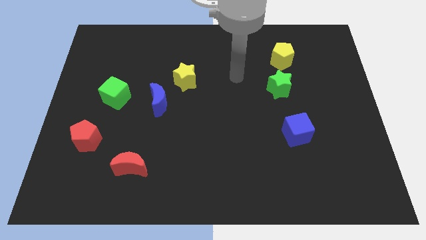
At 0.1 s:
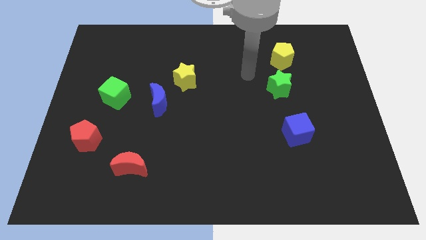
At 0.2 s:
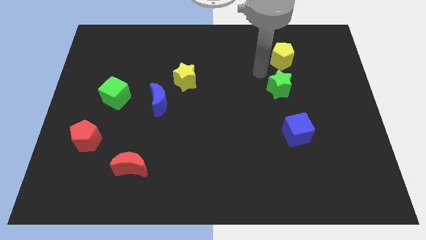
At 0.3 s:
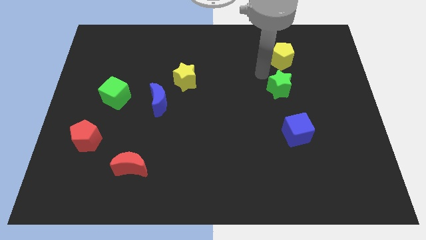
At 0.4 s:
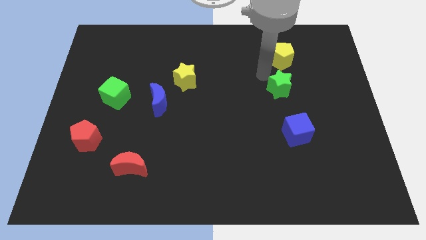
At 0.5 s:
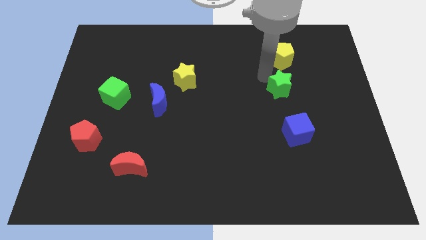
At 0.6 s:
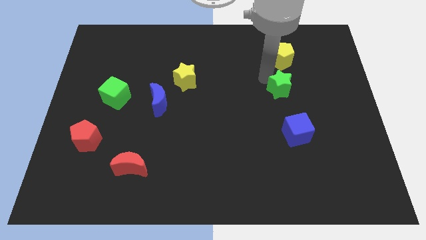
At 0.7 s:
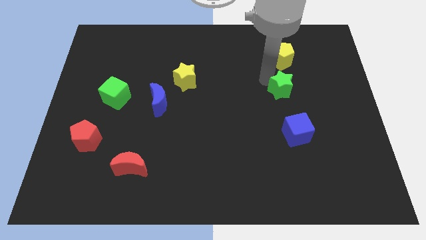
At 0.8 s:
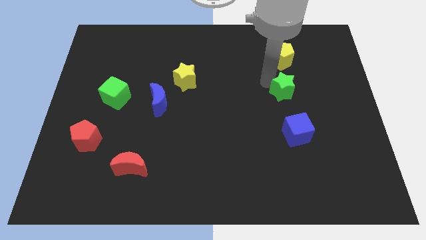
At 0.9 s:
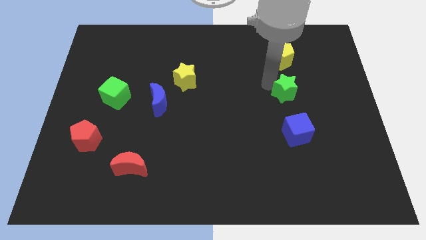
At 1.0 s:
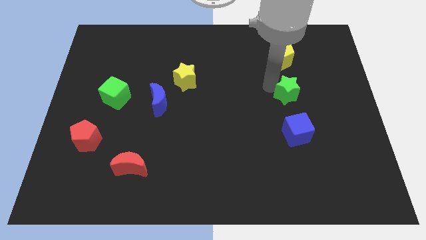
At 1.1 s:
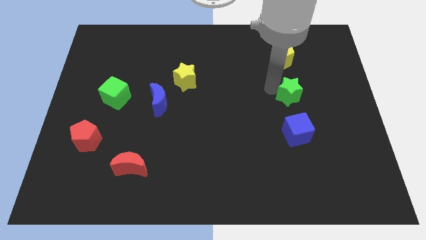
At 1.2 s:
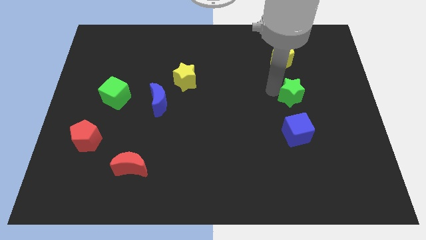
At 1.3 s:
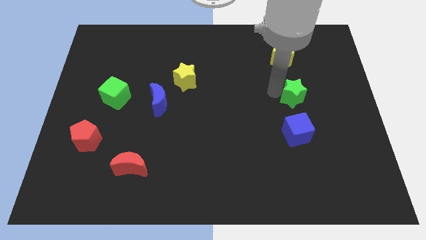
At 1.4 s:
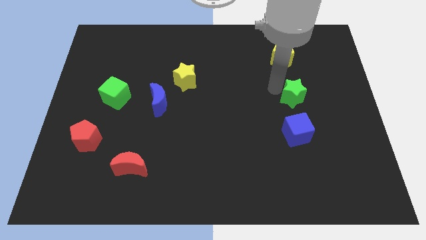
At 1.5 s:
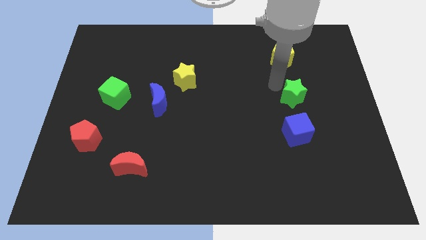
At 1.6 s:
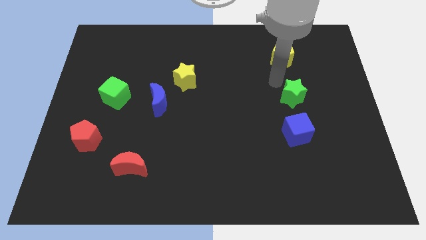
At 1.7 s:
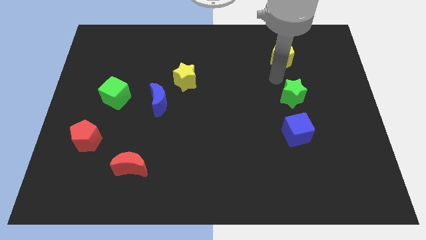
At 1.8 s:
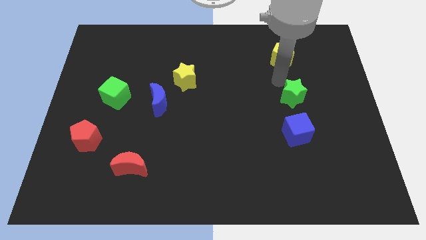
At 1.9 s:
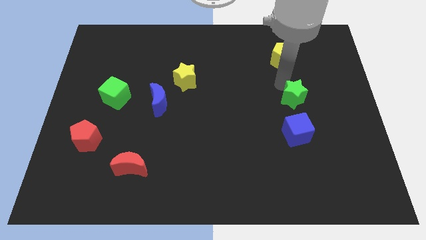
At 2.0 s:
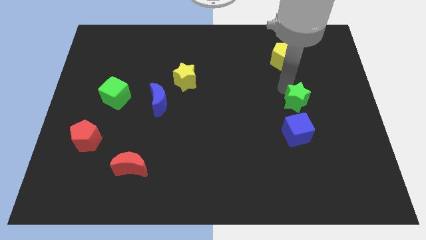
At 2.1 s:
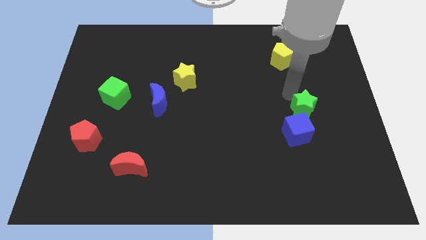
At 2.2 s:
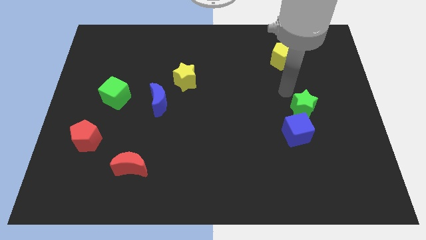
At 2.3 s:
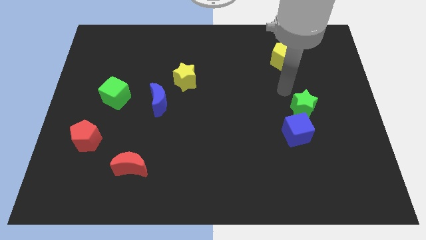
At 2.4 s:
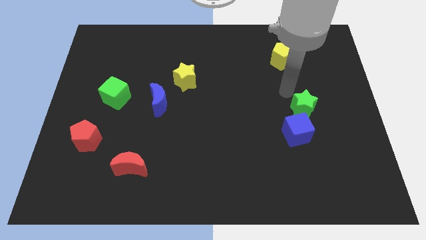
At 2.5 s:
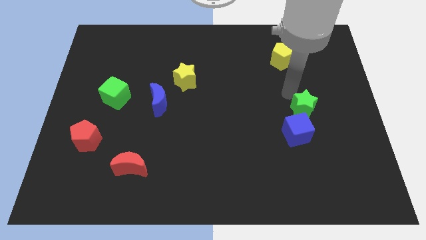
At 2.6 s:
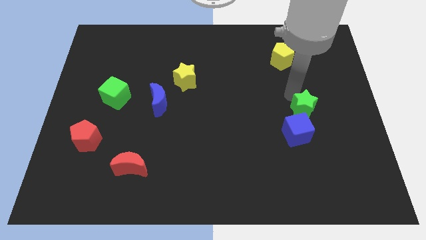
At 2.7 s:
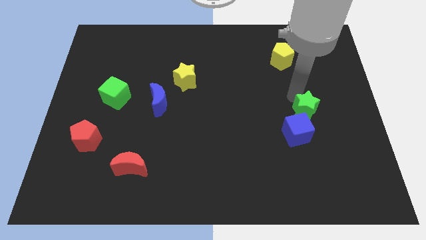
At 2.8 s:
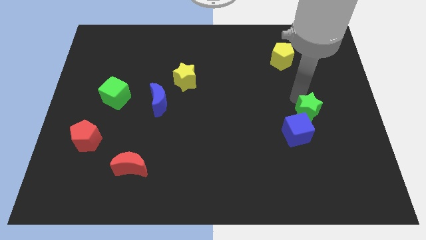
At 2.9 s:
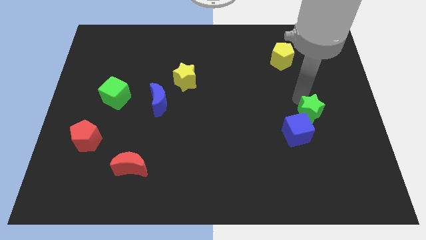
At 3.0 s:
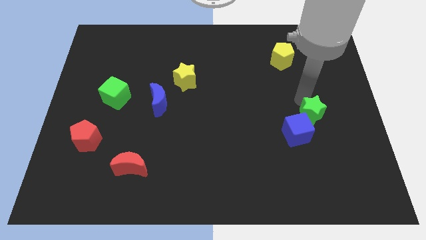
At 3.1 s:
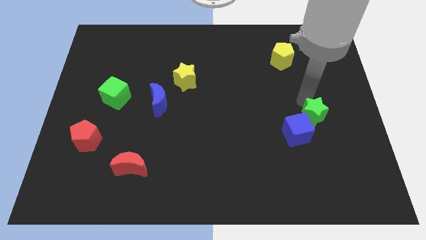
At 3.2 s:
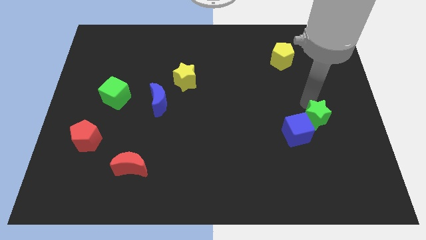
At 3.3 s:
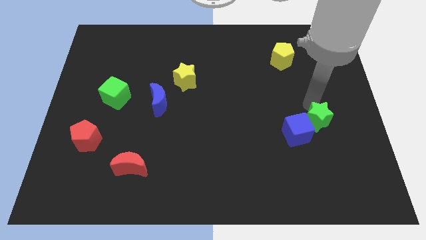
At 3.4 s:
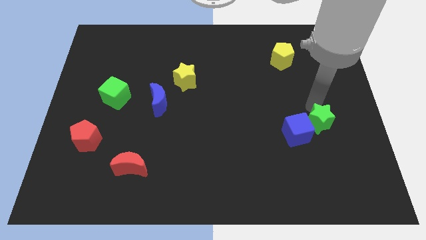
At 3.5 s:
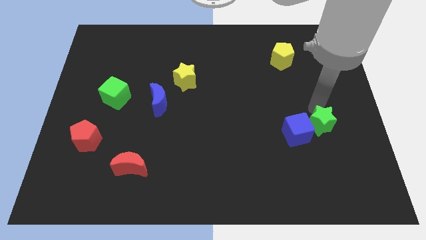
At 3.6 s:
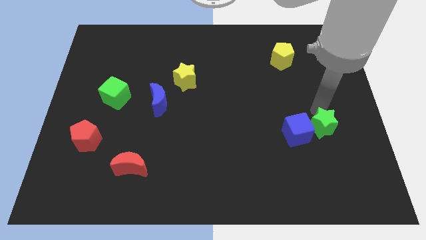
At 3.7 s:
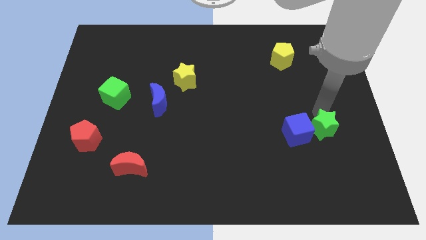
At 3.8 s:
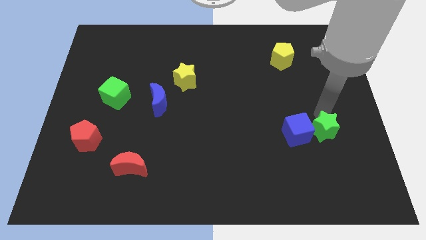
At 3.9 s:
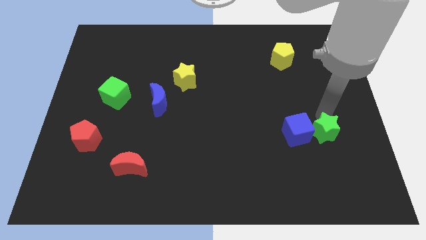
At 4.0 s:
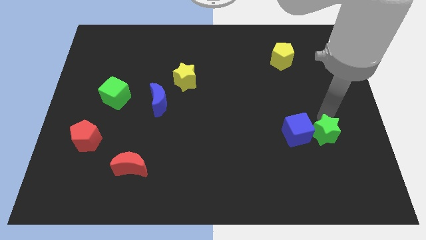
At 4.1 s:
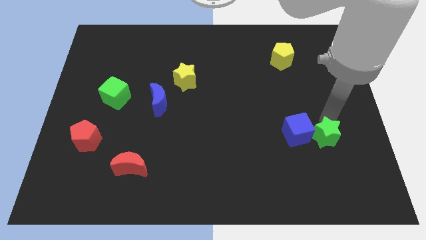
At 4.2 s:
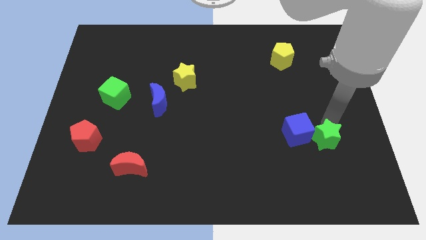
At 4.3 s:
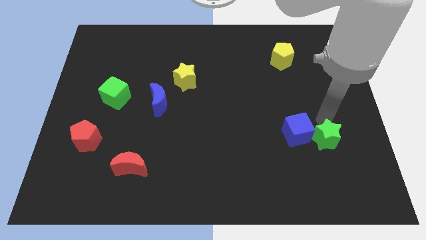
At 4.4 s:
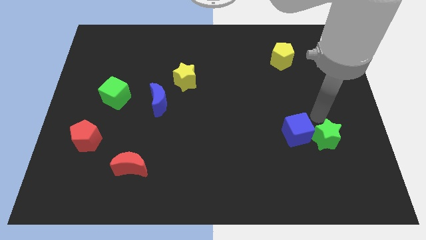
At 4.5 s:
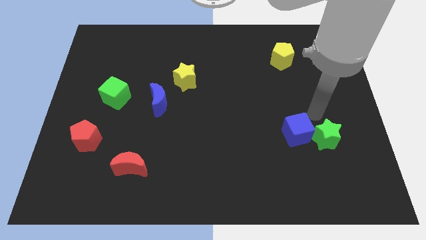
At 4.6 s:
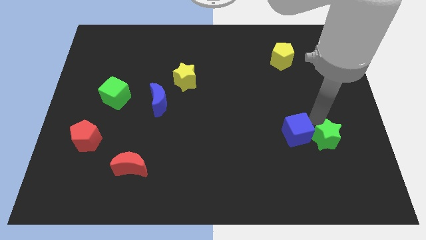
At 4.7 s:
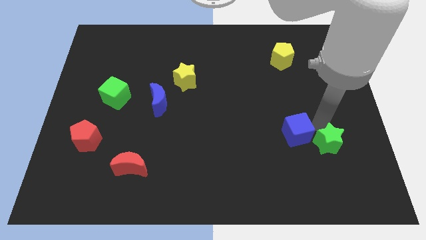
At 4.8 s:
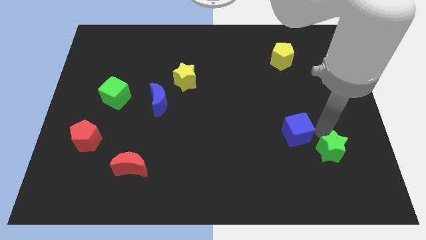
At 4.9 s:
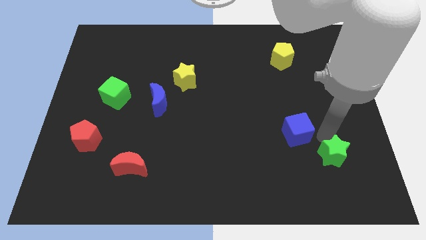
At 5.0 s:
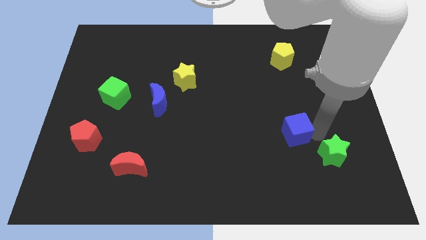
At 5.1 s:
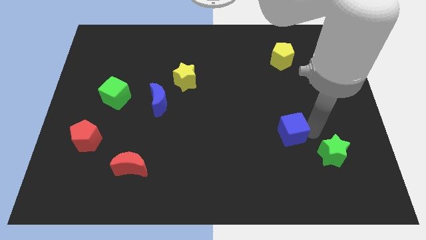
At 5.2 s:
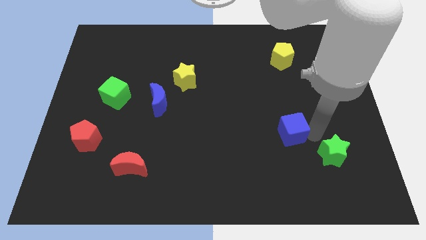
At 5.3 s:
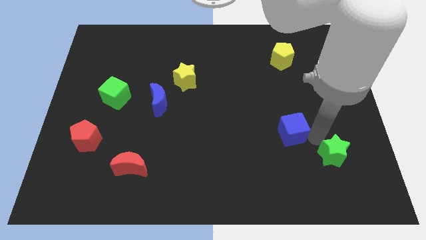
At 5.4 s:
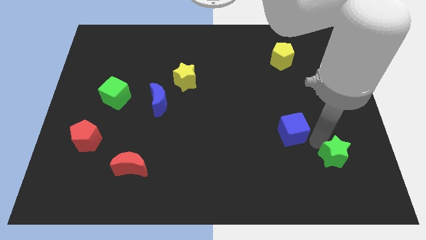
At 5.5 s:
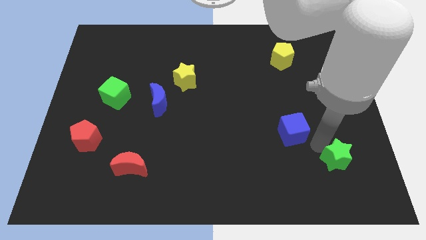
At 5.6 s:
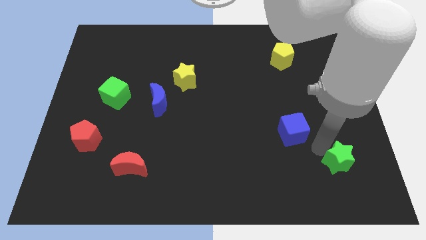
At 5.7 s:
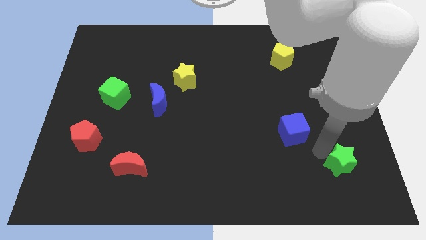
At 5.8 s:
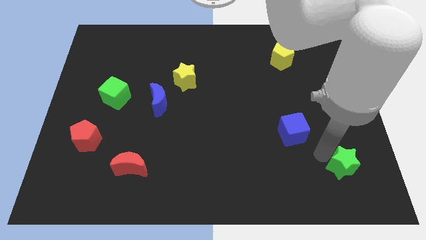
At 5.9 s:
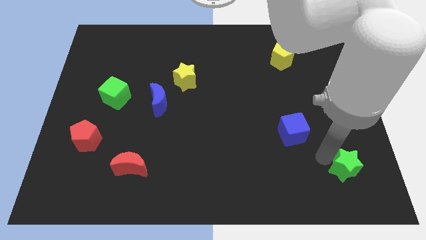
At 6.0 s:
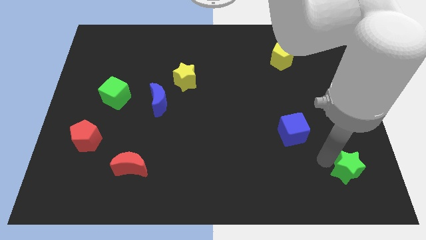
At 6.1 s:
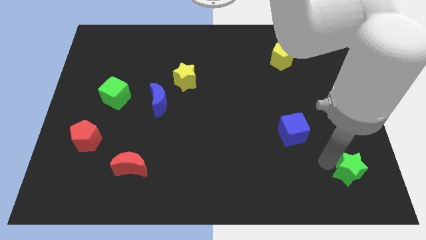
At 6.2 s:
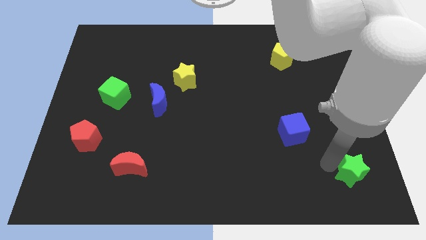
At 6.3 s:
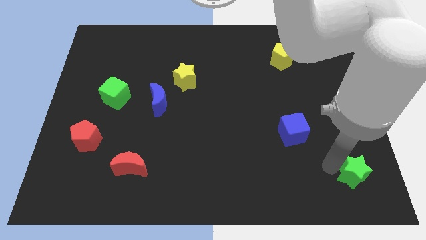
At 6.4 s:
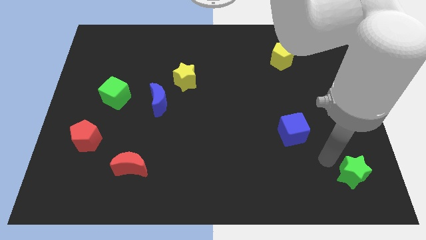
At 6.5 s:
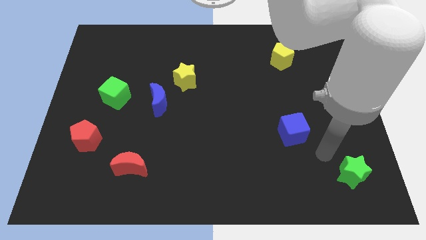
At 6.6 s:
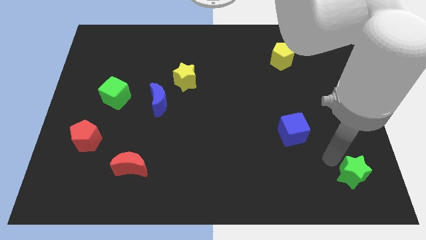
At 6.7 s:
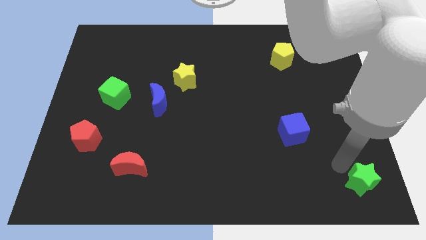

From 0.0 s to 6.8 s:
move the green star to the lower right corner
